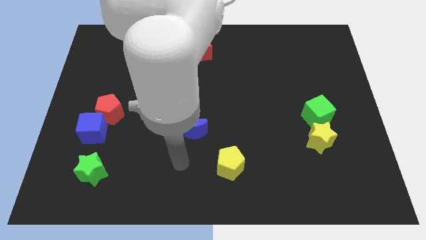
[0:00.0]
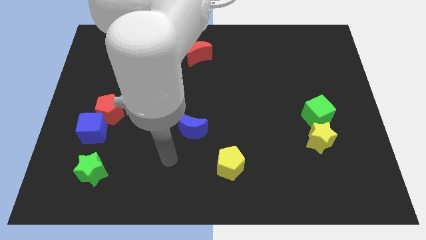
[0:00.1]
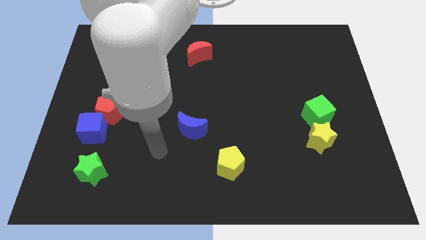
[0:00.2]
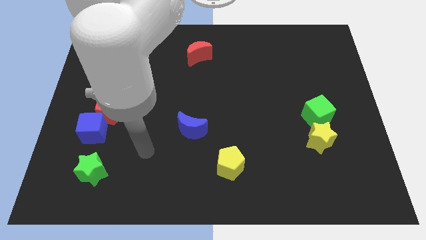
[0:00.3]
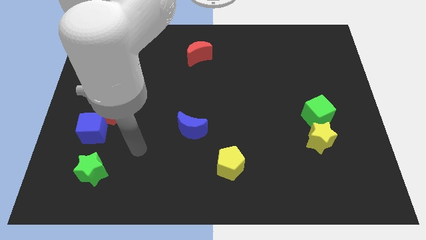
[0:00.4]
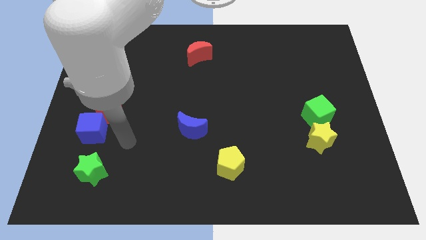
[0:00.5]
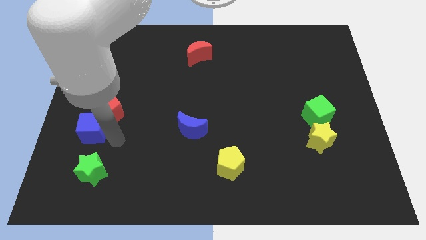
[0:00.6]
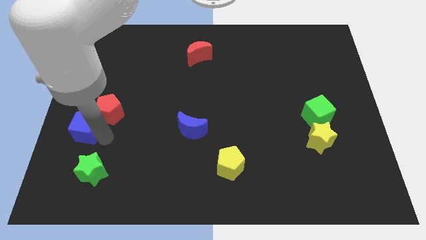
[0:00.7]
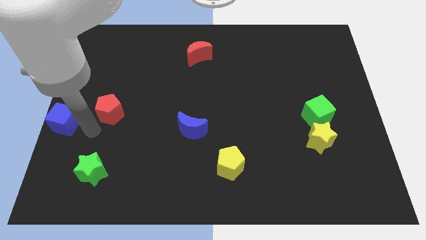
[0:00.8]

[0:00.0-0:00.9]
pull the red pentagon apart from the blue cube

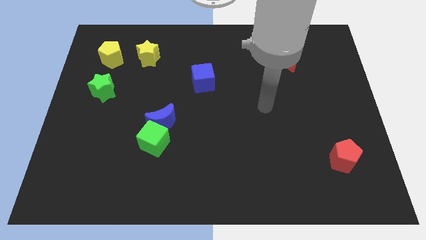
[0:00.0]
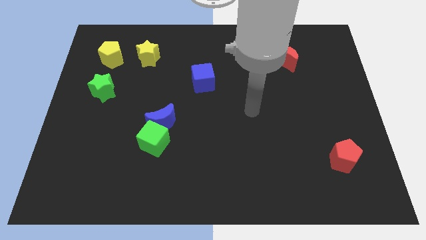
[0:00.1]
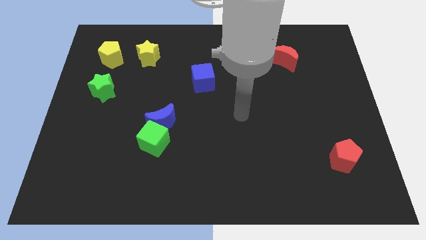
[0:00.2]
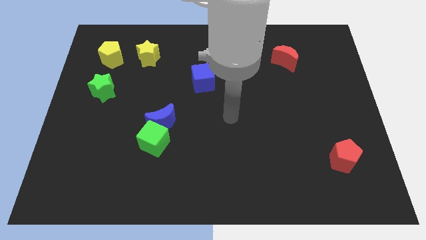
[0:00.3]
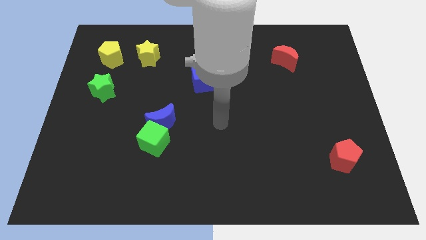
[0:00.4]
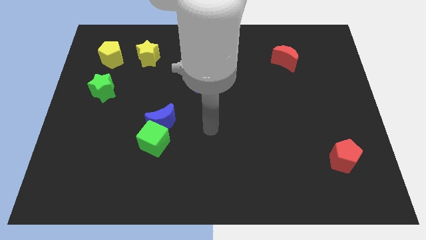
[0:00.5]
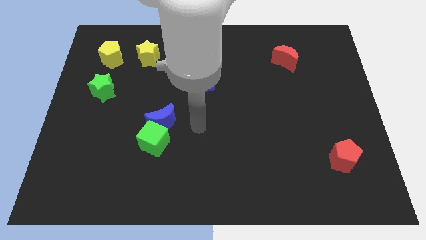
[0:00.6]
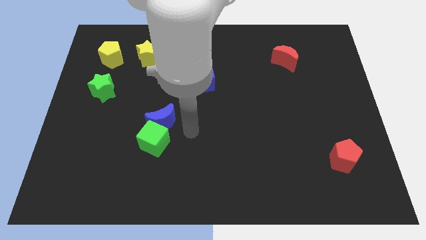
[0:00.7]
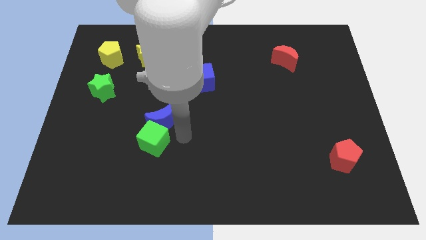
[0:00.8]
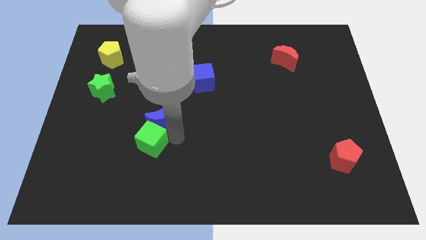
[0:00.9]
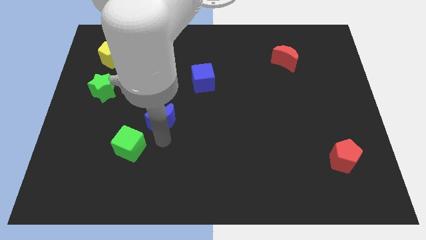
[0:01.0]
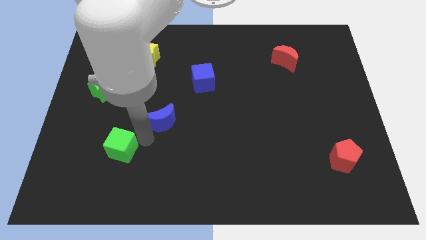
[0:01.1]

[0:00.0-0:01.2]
move the blue moon away from the green cube

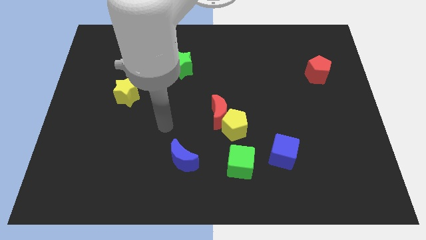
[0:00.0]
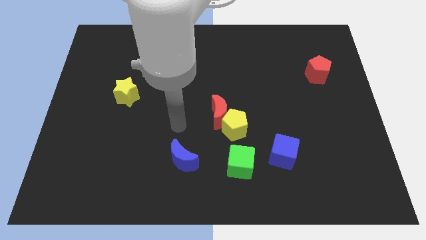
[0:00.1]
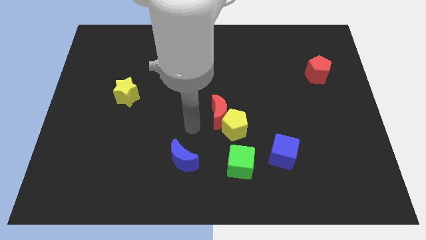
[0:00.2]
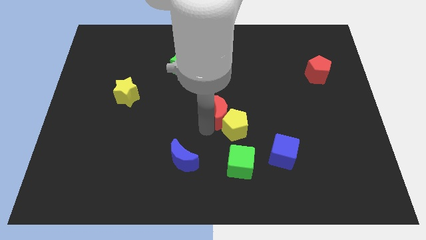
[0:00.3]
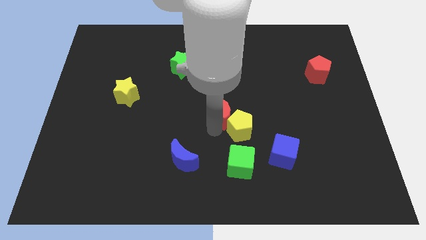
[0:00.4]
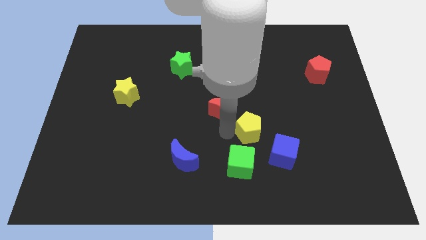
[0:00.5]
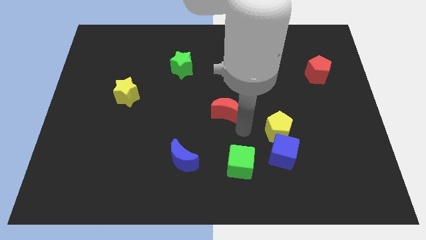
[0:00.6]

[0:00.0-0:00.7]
pull the red moon apart from the yellow pentagon

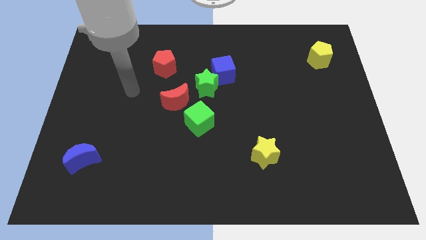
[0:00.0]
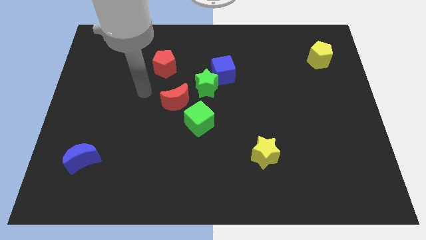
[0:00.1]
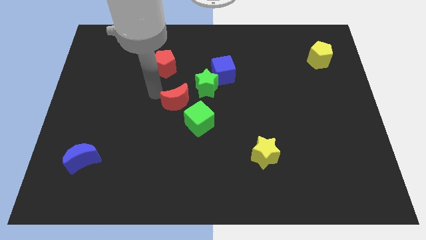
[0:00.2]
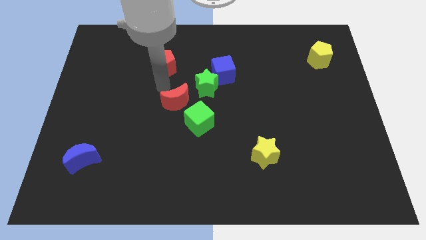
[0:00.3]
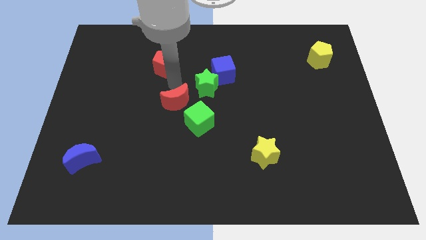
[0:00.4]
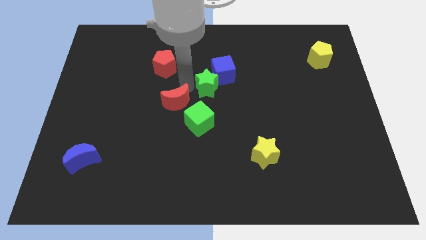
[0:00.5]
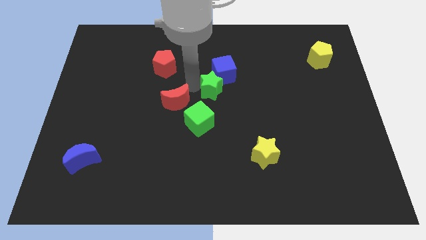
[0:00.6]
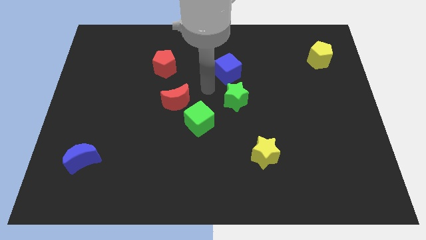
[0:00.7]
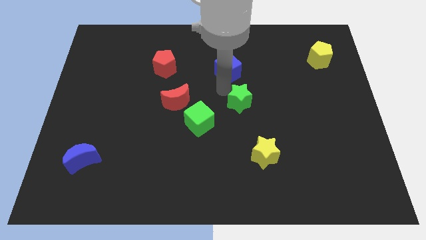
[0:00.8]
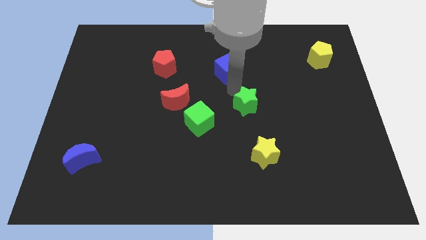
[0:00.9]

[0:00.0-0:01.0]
separate the blue cube from the green star

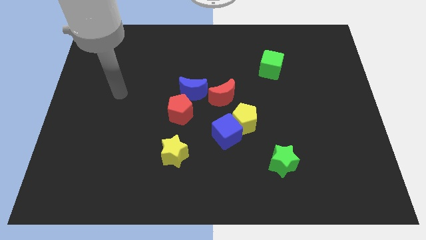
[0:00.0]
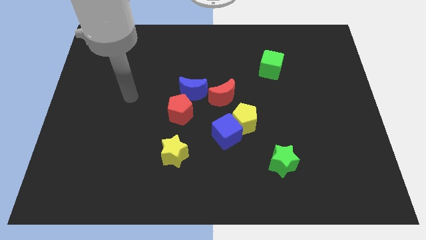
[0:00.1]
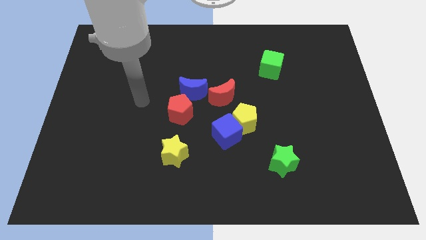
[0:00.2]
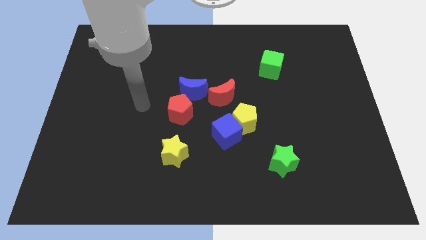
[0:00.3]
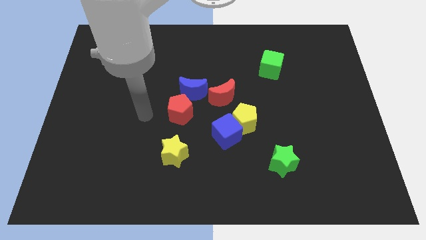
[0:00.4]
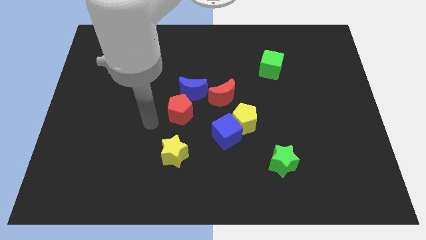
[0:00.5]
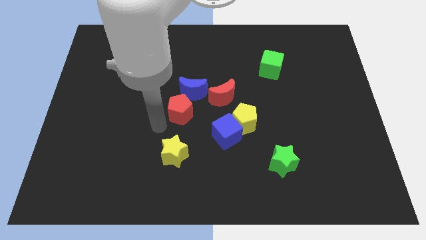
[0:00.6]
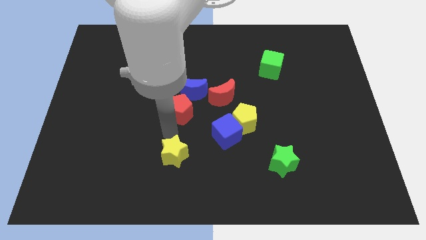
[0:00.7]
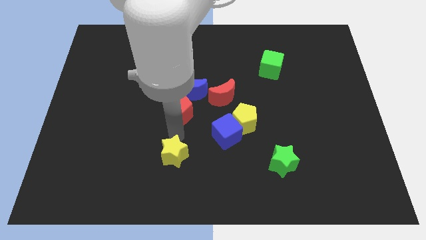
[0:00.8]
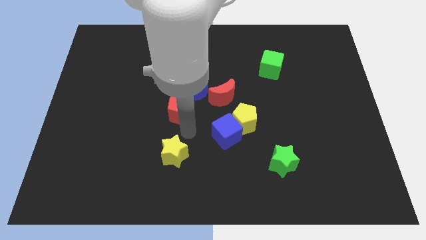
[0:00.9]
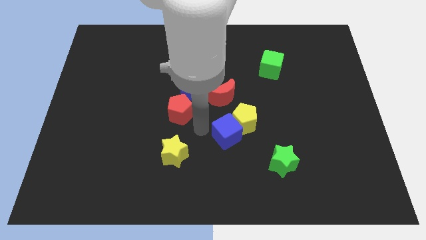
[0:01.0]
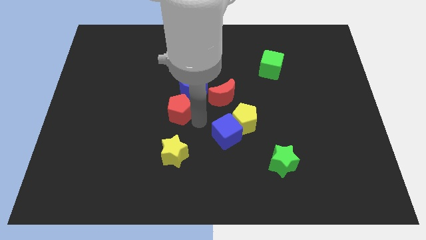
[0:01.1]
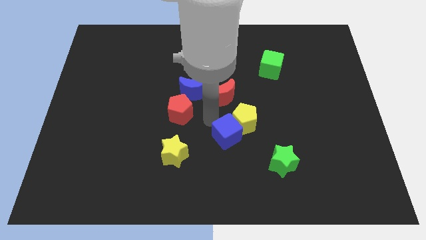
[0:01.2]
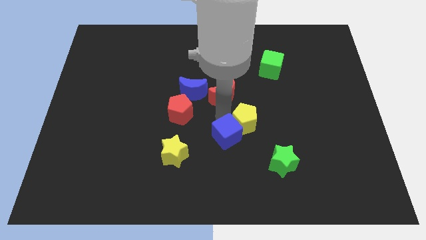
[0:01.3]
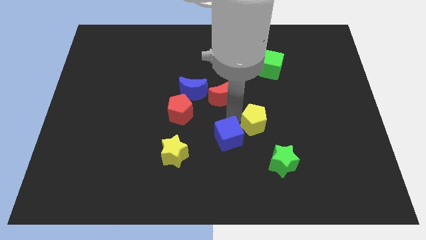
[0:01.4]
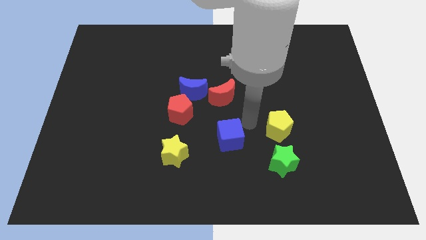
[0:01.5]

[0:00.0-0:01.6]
separate the blue cube from the yellow pentagon

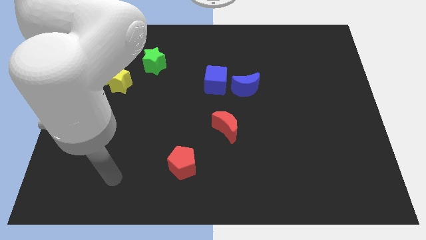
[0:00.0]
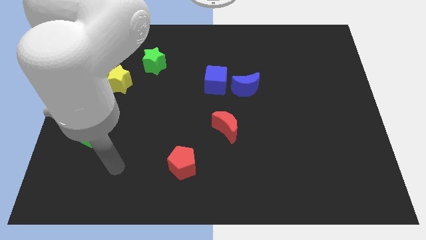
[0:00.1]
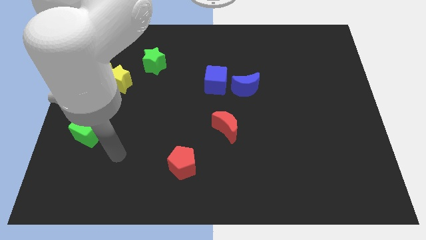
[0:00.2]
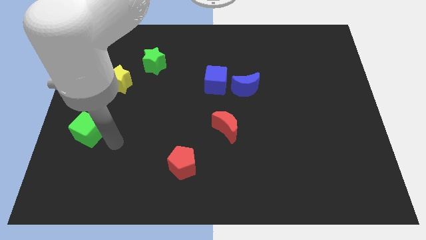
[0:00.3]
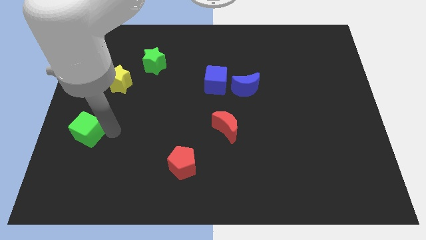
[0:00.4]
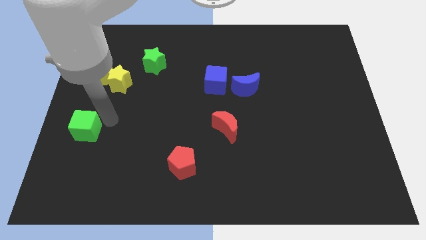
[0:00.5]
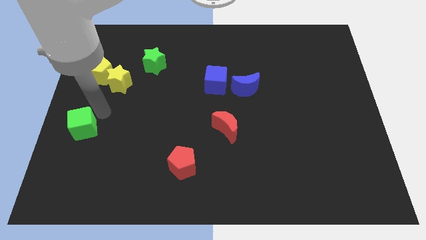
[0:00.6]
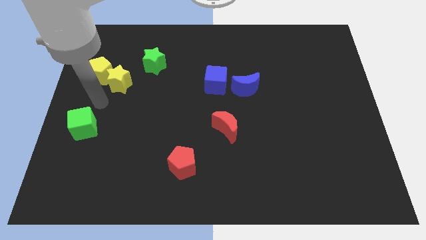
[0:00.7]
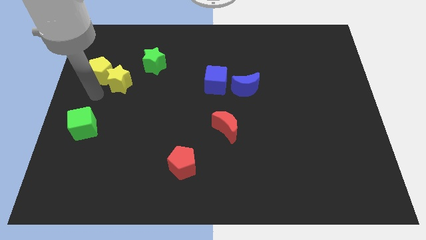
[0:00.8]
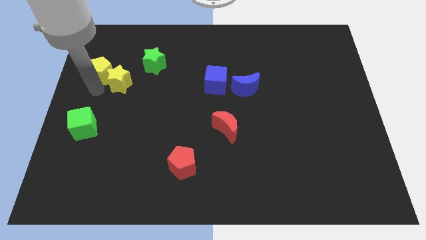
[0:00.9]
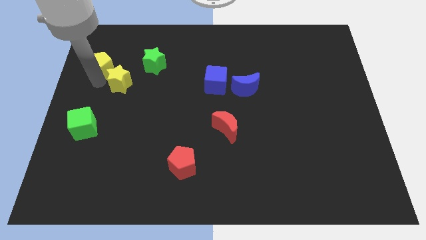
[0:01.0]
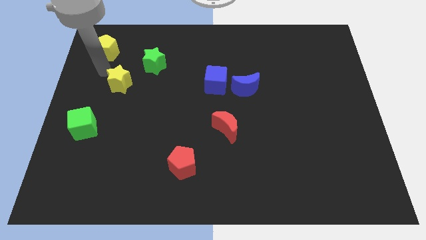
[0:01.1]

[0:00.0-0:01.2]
separate the yellow star from the yellow pentagon

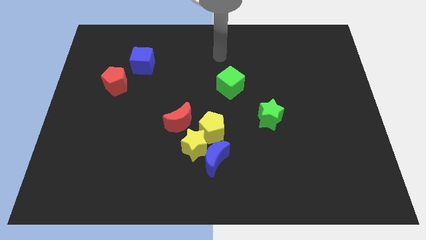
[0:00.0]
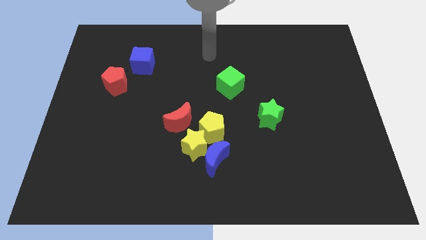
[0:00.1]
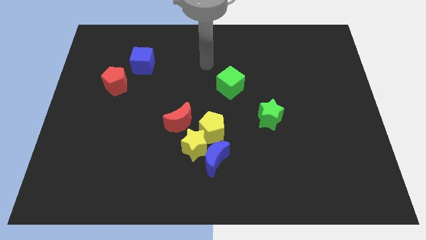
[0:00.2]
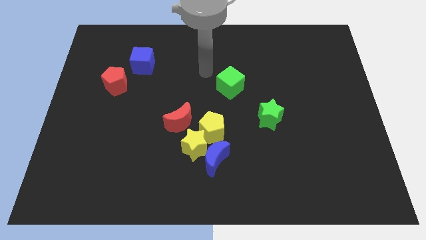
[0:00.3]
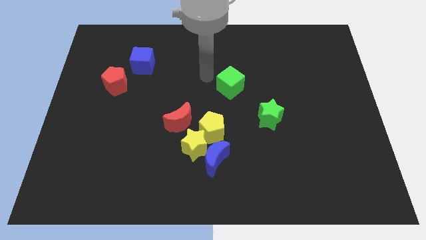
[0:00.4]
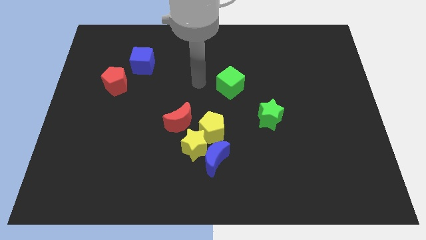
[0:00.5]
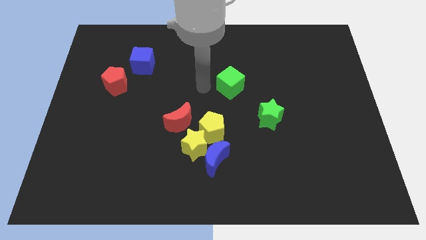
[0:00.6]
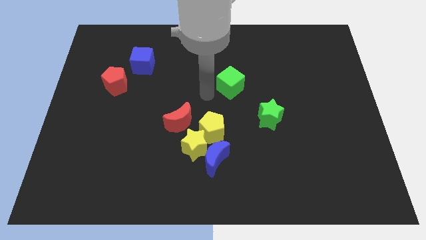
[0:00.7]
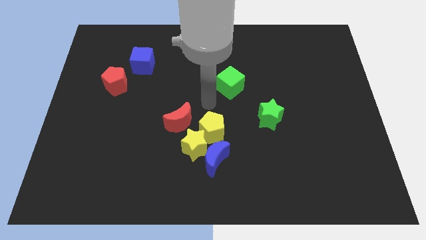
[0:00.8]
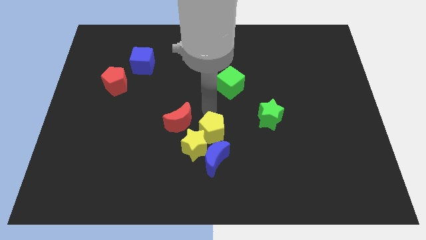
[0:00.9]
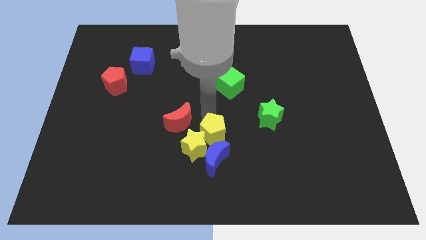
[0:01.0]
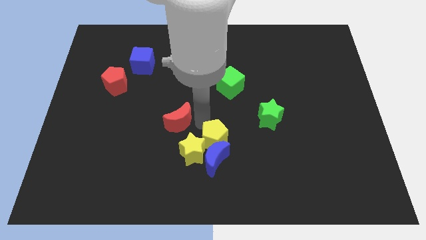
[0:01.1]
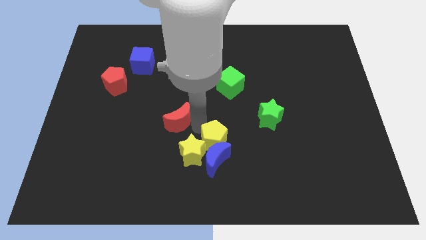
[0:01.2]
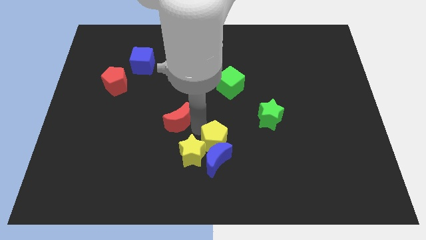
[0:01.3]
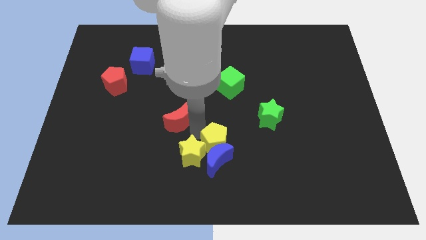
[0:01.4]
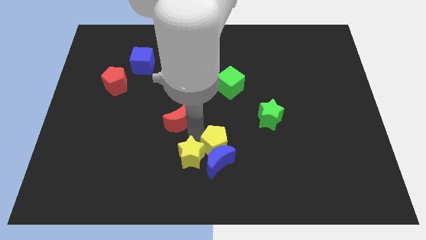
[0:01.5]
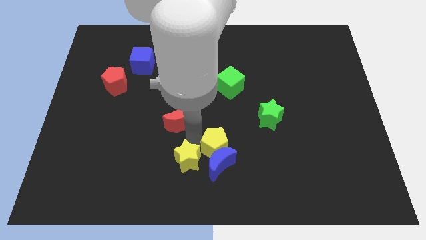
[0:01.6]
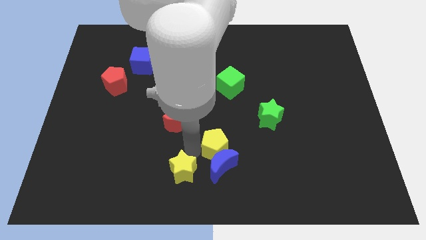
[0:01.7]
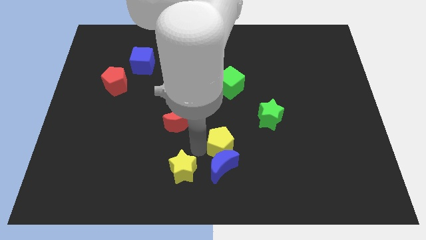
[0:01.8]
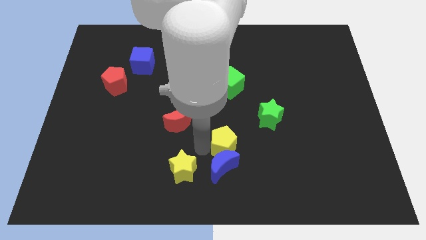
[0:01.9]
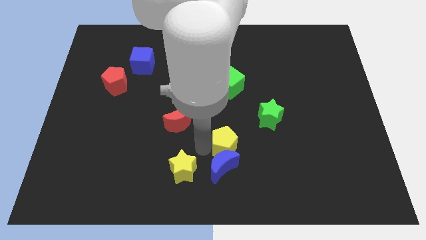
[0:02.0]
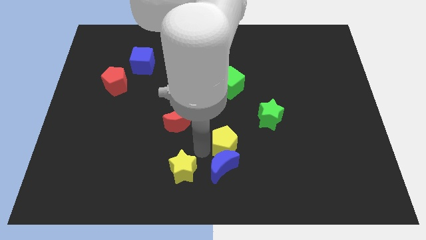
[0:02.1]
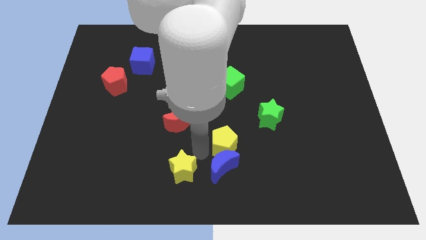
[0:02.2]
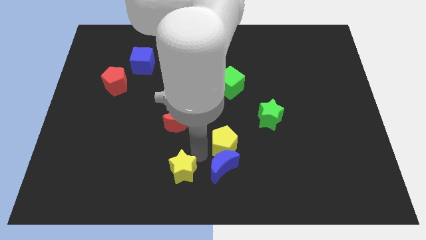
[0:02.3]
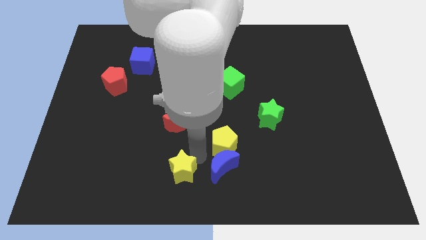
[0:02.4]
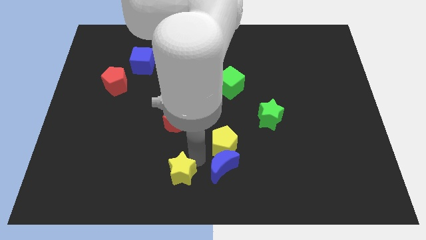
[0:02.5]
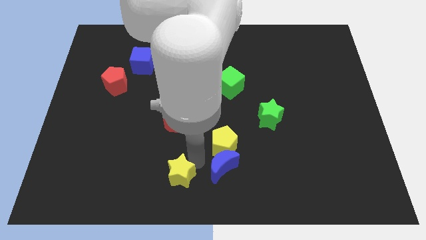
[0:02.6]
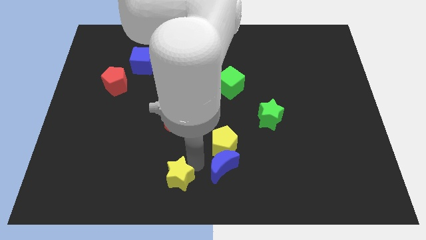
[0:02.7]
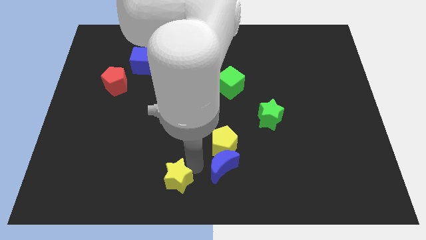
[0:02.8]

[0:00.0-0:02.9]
pull the yellow star apart from the group of blocks
